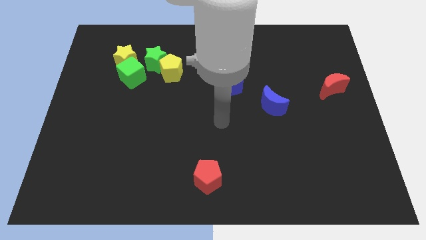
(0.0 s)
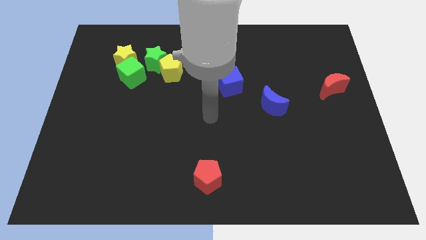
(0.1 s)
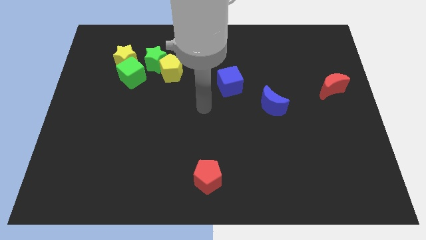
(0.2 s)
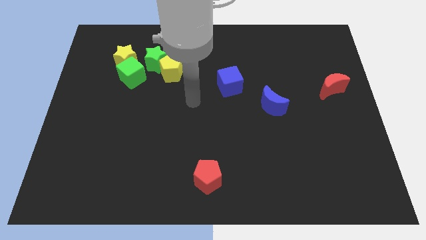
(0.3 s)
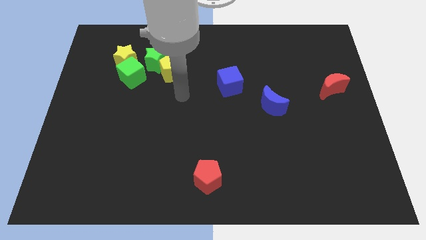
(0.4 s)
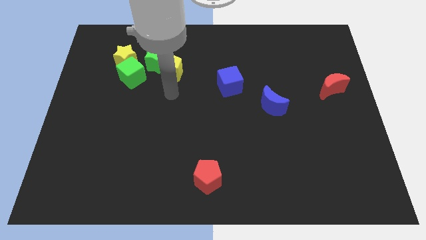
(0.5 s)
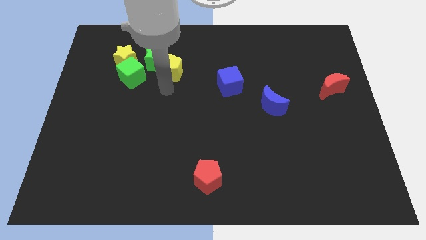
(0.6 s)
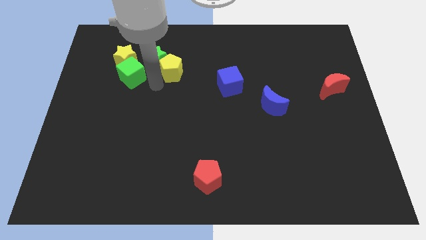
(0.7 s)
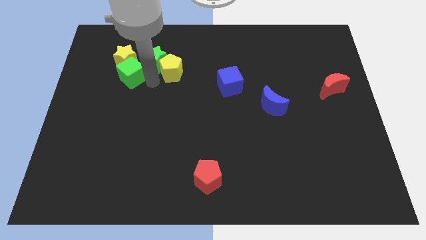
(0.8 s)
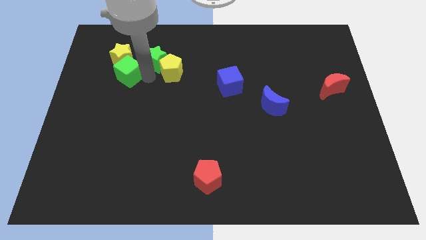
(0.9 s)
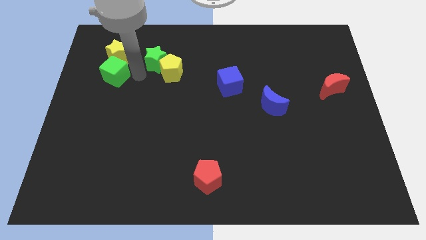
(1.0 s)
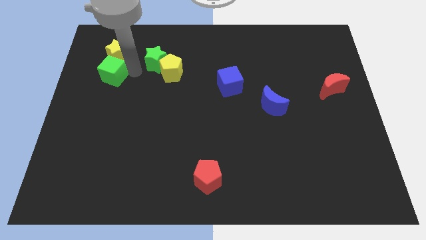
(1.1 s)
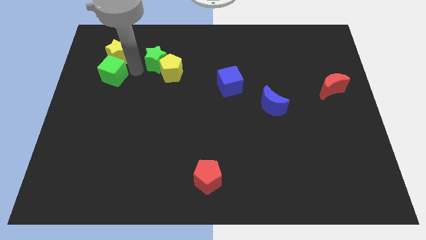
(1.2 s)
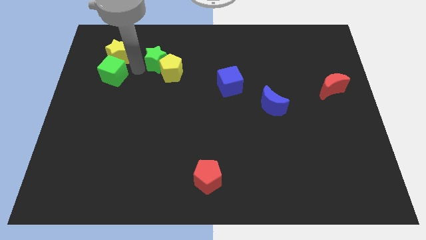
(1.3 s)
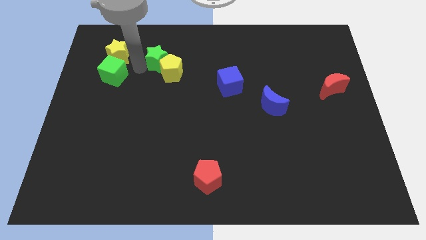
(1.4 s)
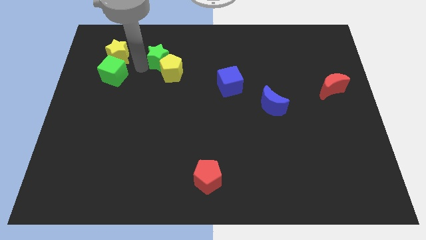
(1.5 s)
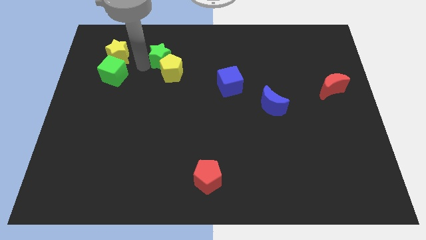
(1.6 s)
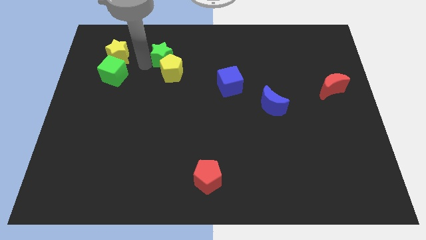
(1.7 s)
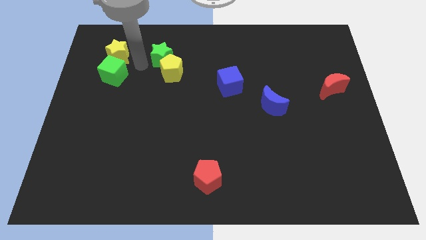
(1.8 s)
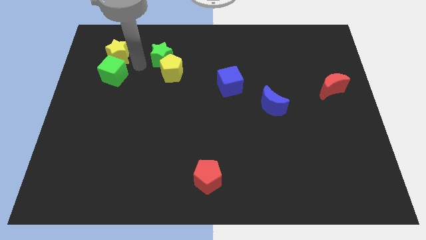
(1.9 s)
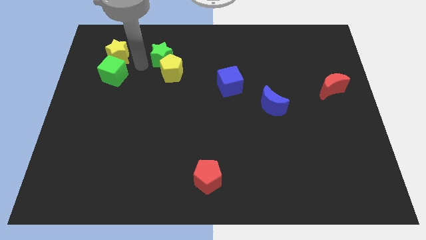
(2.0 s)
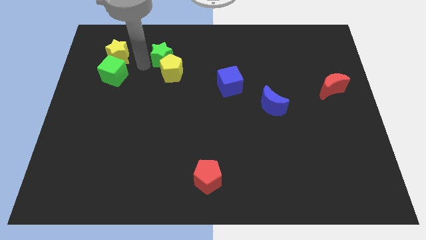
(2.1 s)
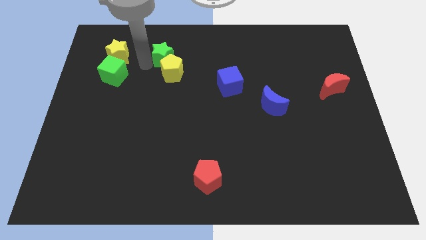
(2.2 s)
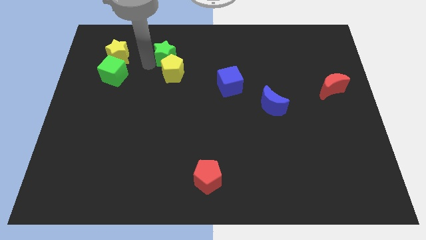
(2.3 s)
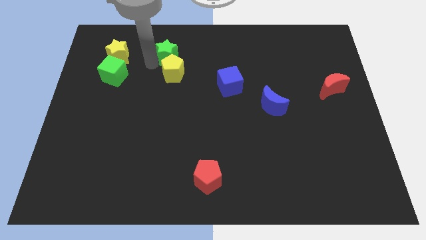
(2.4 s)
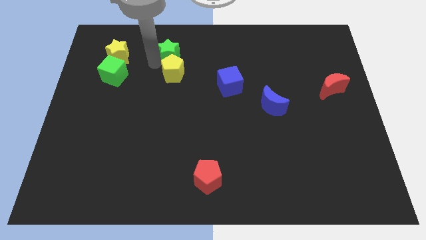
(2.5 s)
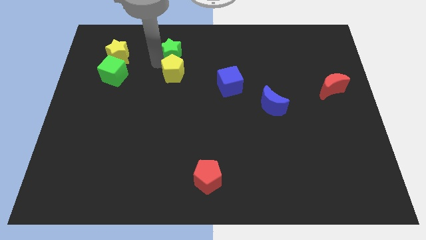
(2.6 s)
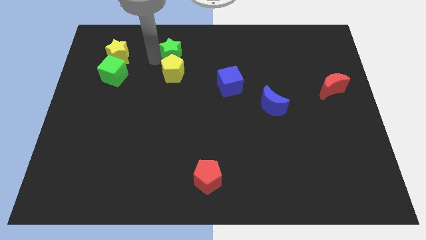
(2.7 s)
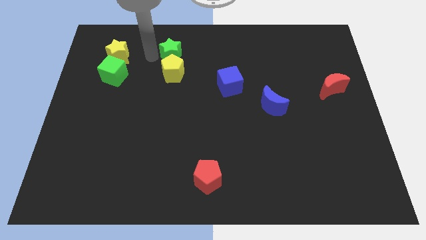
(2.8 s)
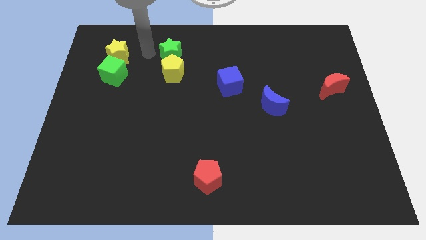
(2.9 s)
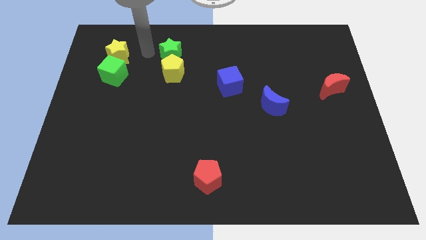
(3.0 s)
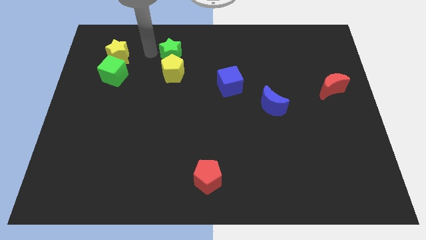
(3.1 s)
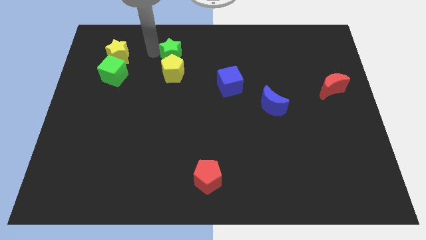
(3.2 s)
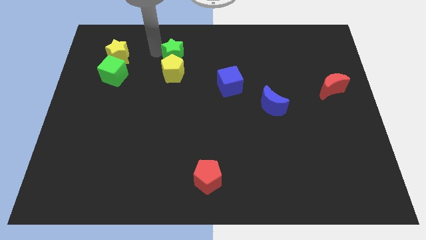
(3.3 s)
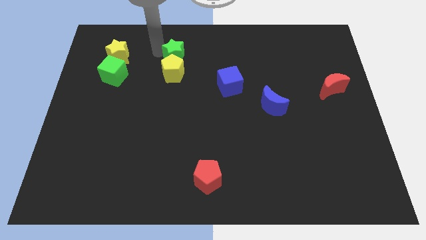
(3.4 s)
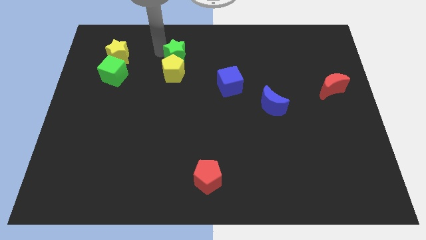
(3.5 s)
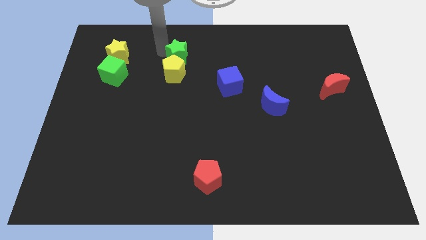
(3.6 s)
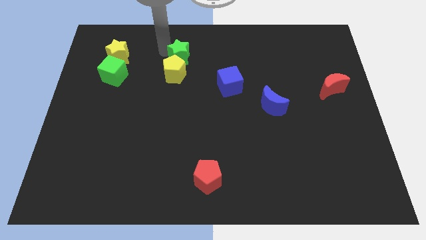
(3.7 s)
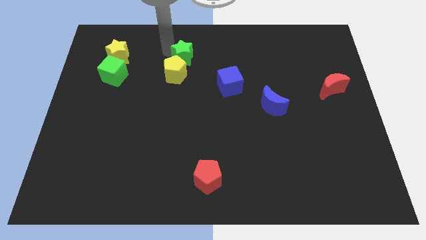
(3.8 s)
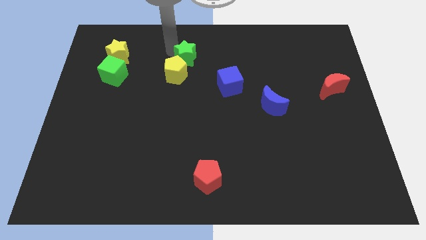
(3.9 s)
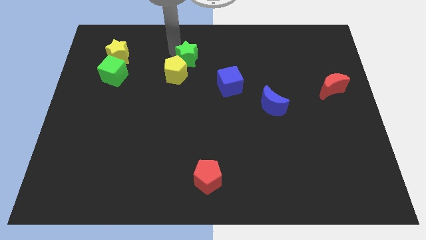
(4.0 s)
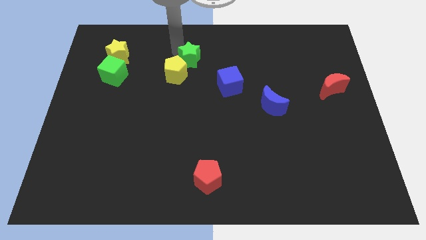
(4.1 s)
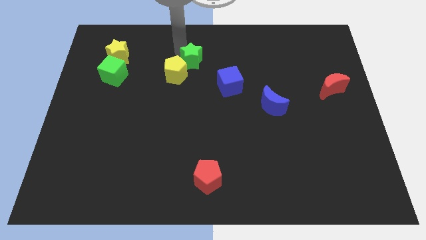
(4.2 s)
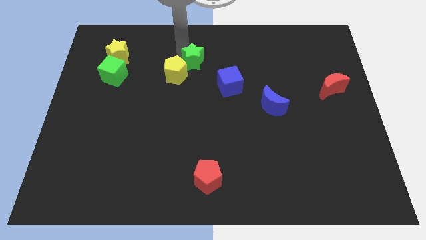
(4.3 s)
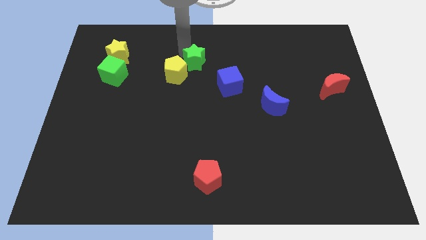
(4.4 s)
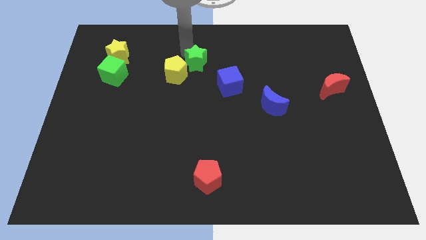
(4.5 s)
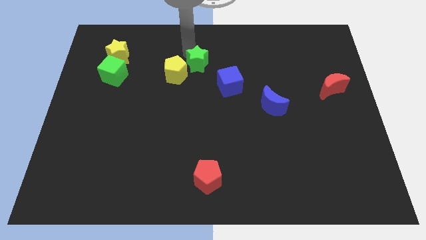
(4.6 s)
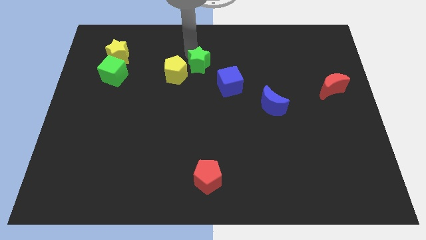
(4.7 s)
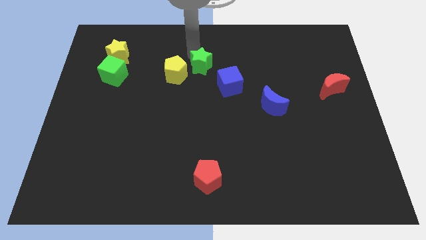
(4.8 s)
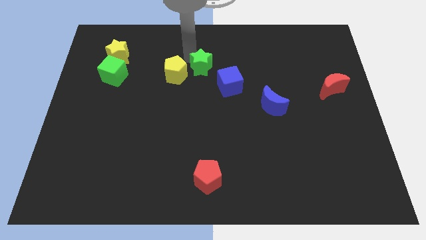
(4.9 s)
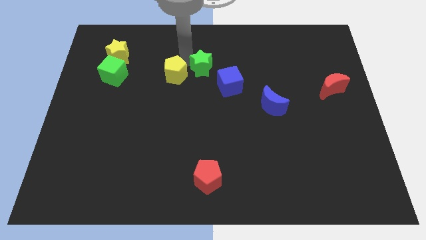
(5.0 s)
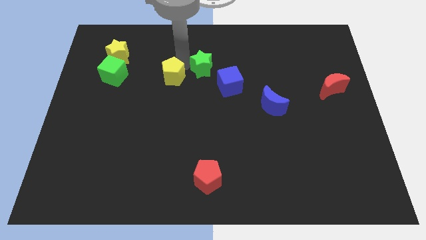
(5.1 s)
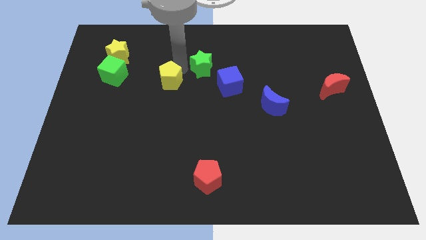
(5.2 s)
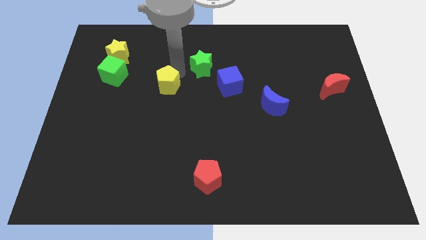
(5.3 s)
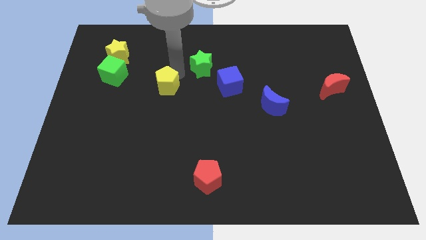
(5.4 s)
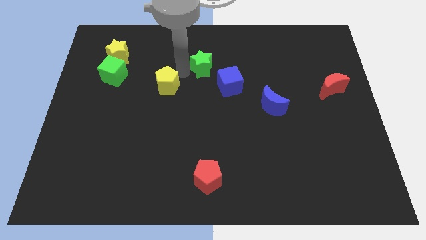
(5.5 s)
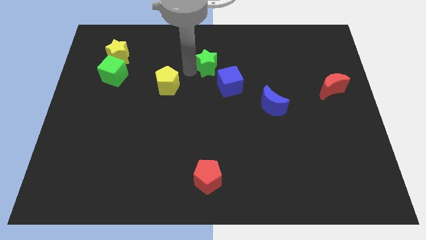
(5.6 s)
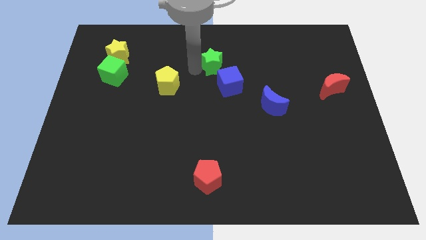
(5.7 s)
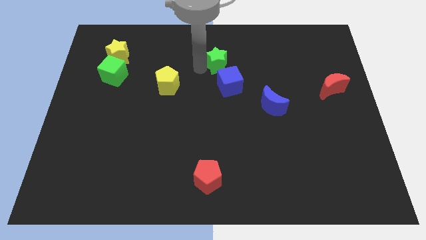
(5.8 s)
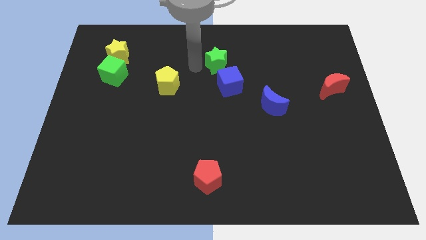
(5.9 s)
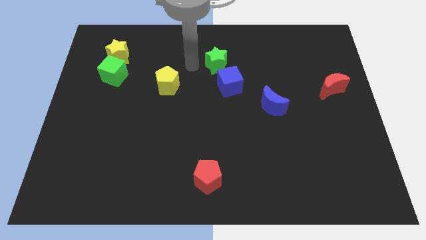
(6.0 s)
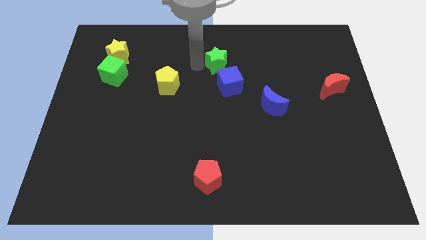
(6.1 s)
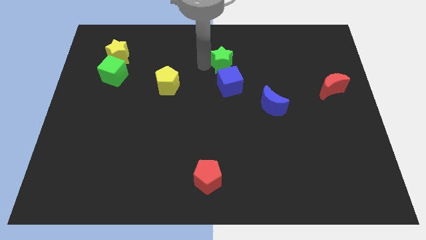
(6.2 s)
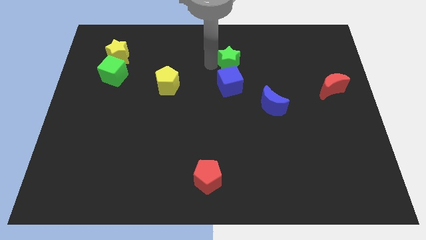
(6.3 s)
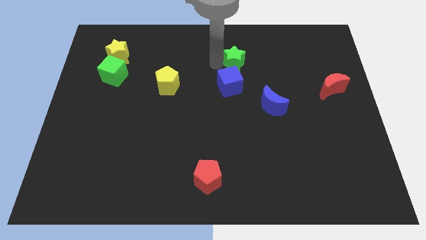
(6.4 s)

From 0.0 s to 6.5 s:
slide the green star to the right

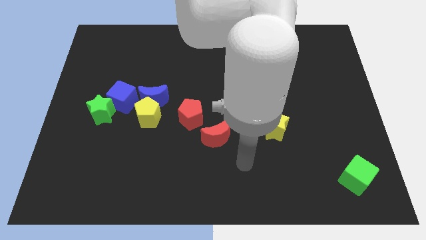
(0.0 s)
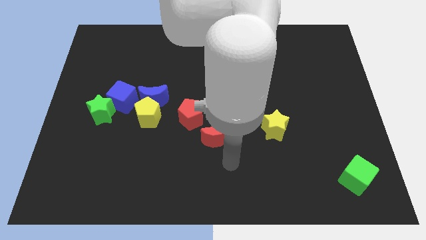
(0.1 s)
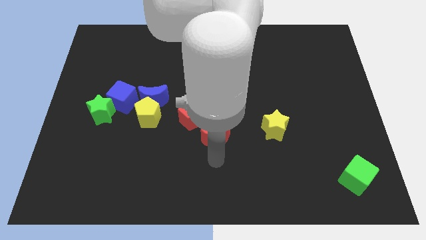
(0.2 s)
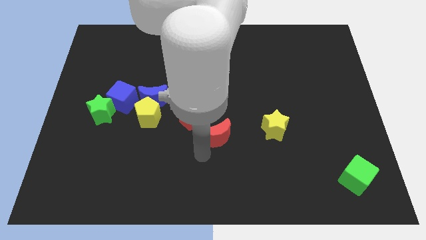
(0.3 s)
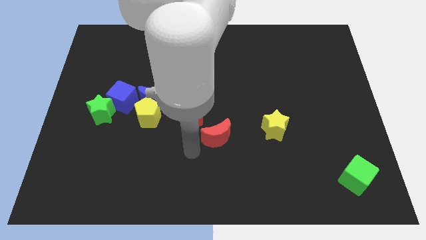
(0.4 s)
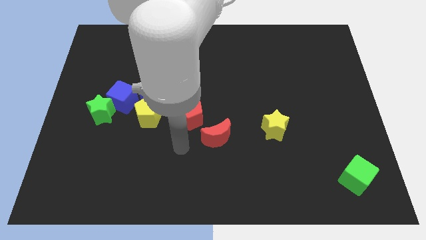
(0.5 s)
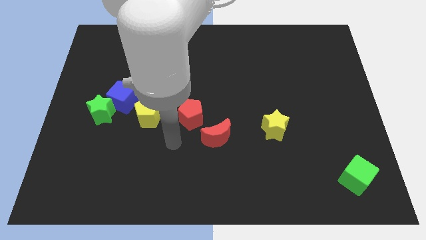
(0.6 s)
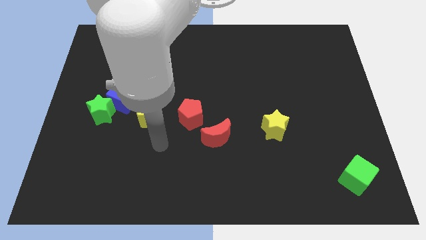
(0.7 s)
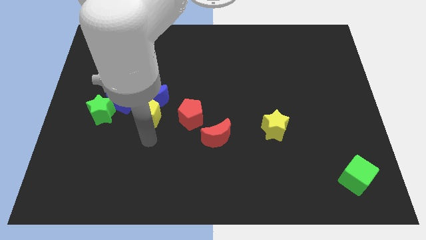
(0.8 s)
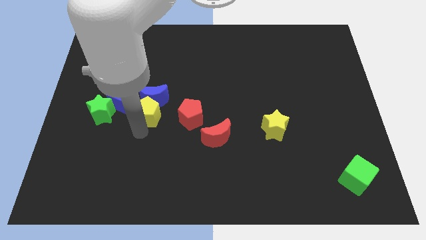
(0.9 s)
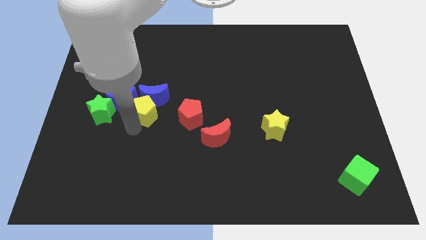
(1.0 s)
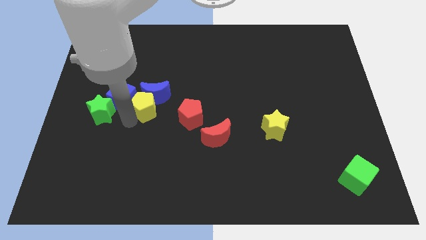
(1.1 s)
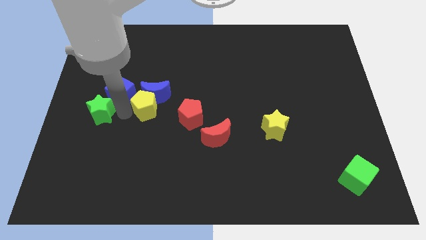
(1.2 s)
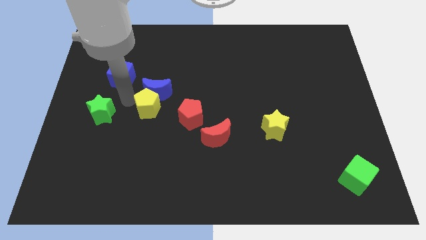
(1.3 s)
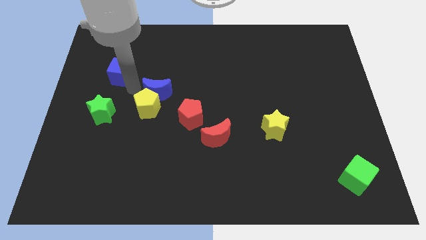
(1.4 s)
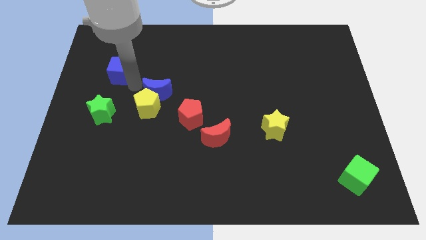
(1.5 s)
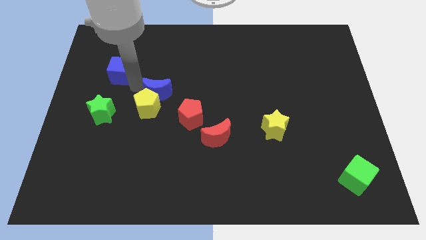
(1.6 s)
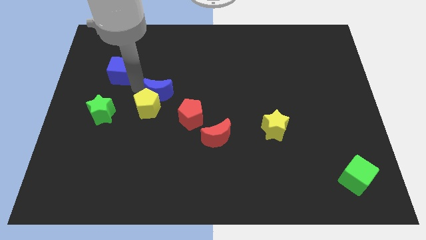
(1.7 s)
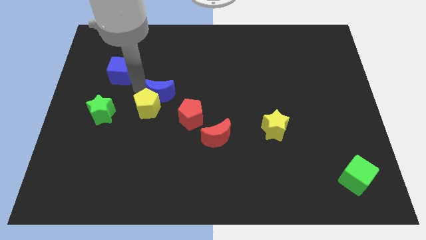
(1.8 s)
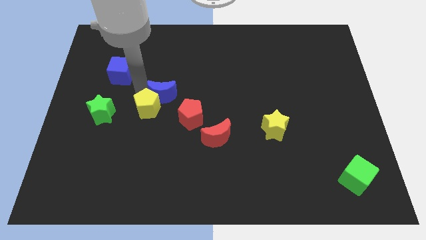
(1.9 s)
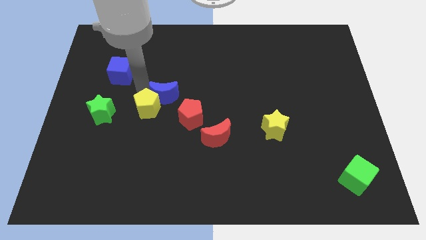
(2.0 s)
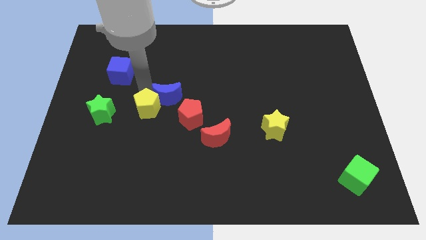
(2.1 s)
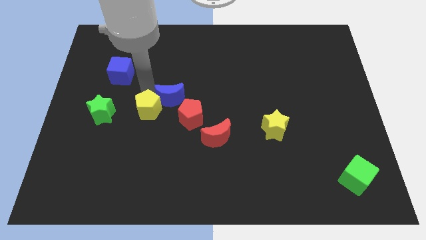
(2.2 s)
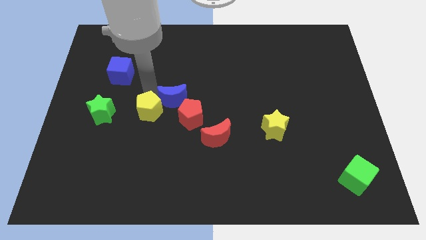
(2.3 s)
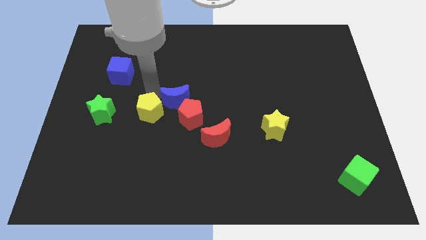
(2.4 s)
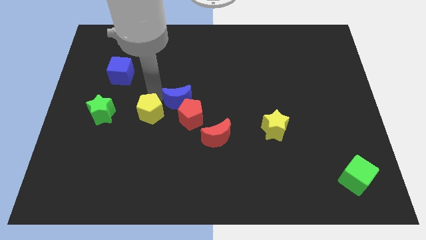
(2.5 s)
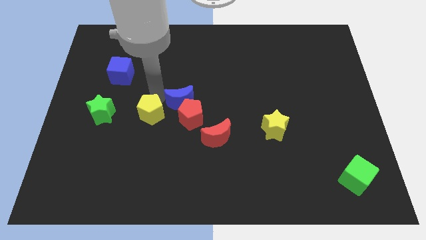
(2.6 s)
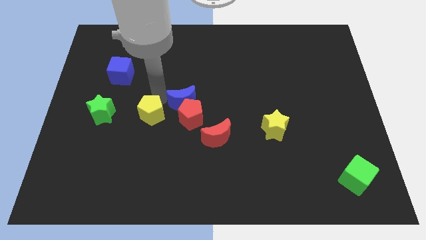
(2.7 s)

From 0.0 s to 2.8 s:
slightly push the blue moon to the right
